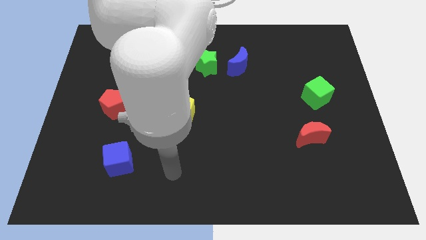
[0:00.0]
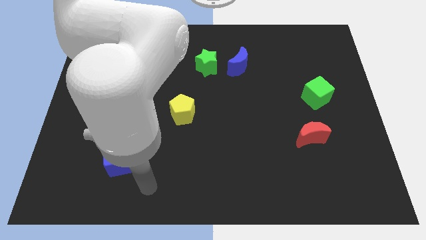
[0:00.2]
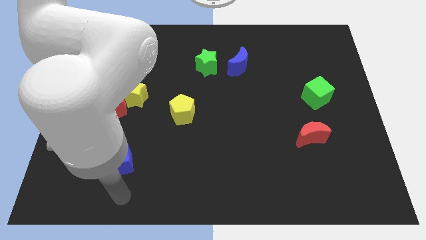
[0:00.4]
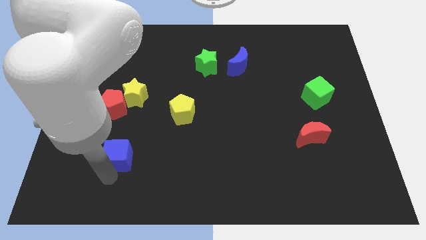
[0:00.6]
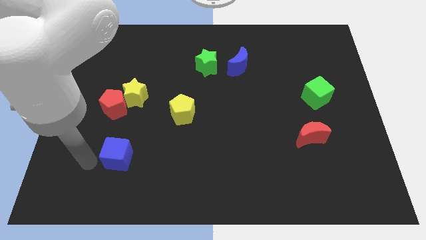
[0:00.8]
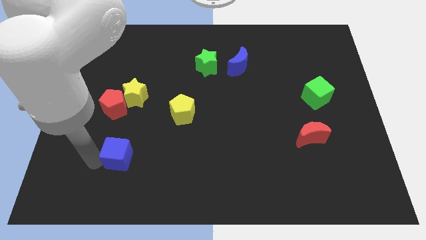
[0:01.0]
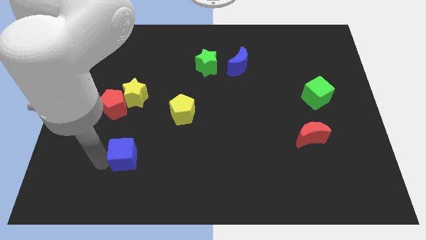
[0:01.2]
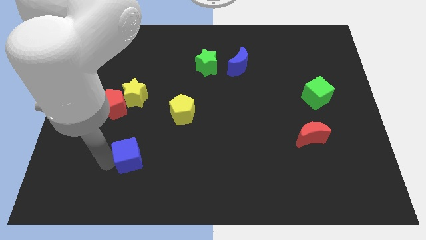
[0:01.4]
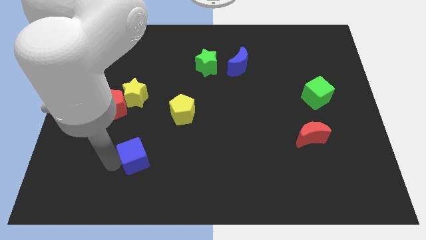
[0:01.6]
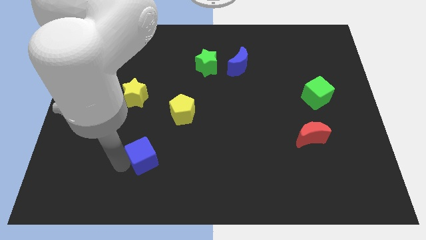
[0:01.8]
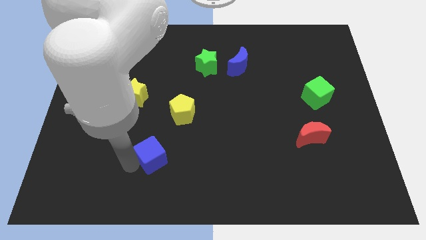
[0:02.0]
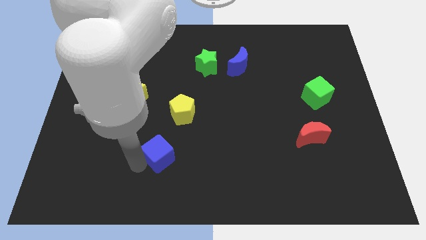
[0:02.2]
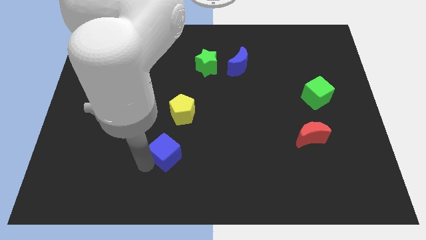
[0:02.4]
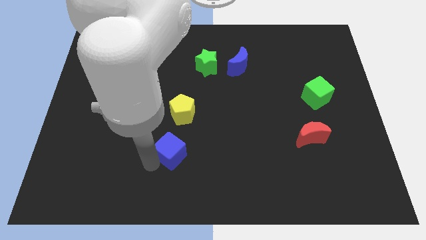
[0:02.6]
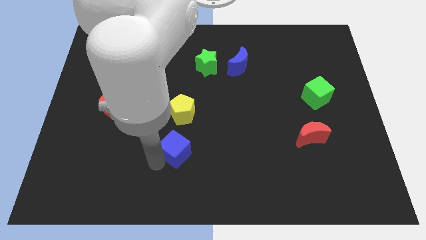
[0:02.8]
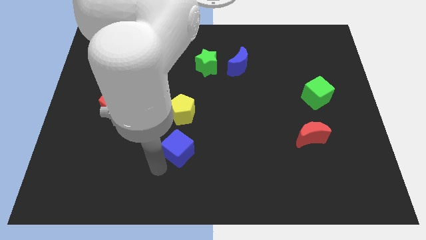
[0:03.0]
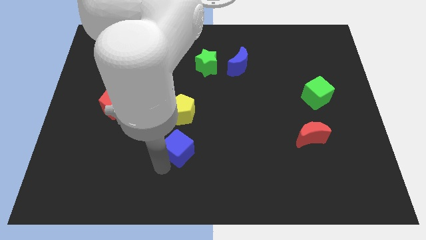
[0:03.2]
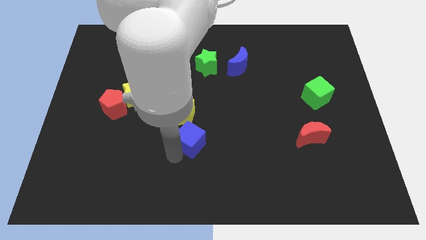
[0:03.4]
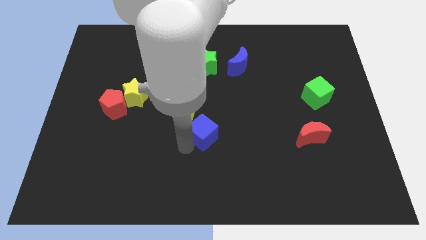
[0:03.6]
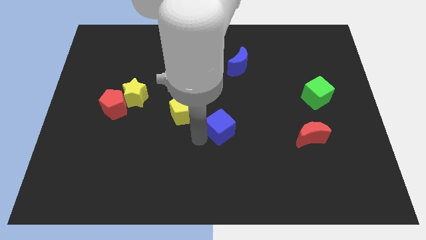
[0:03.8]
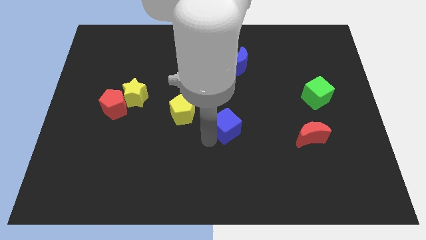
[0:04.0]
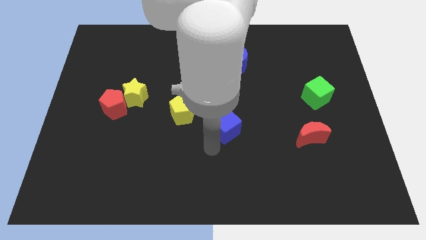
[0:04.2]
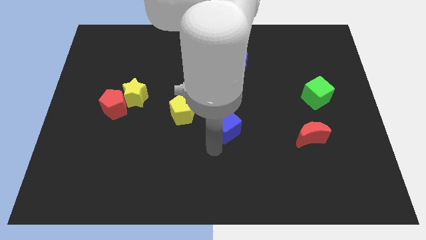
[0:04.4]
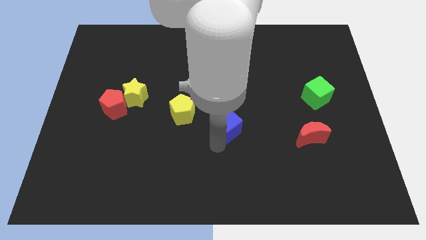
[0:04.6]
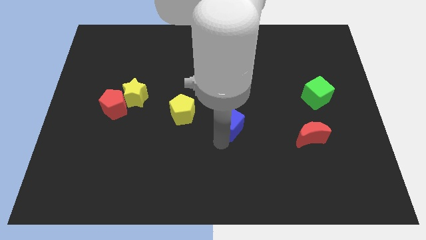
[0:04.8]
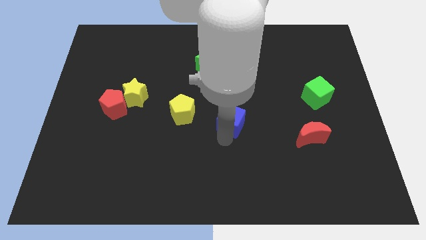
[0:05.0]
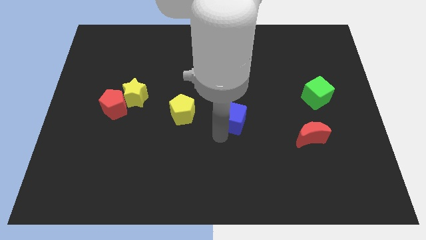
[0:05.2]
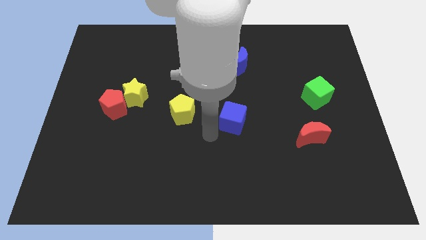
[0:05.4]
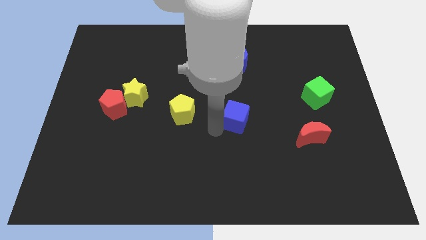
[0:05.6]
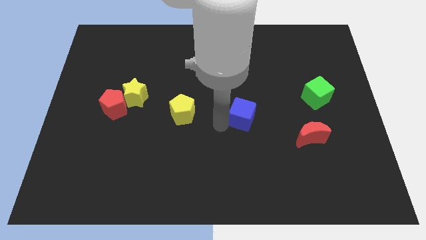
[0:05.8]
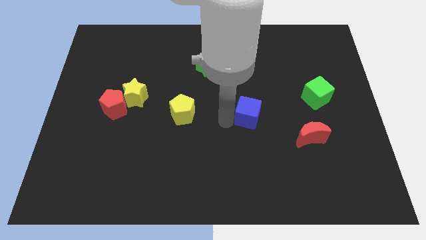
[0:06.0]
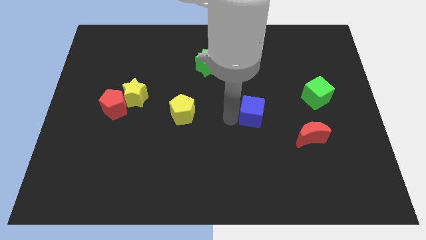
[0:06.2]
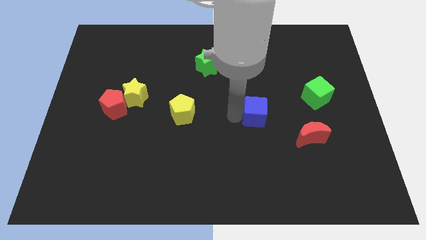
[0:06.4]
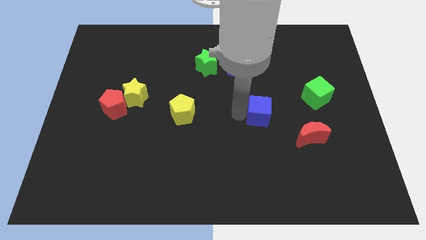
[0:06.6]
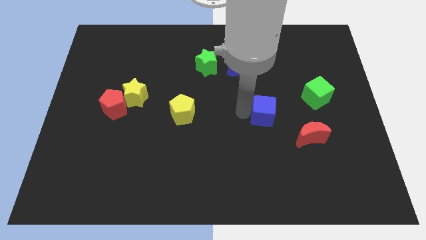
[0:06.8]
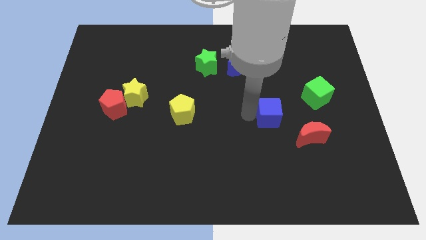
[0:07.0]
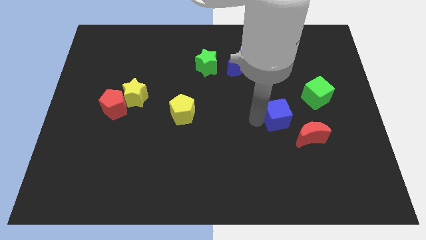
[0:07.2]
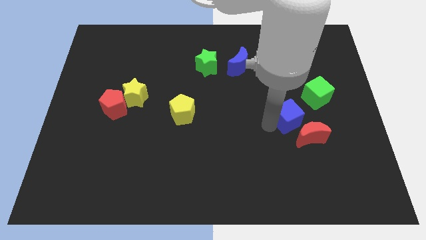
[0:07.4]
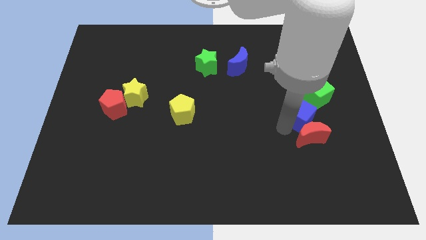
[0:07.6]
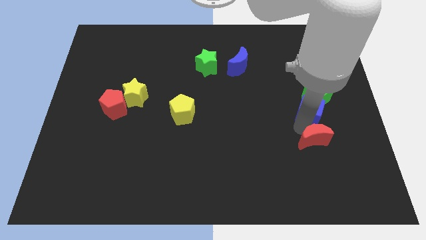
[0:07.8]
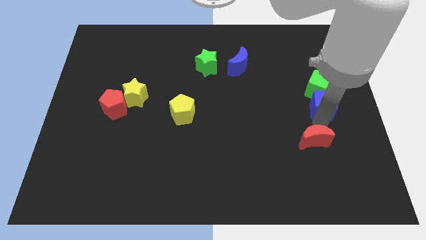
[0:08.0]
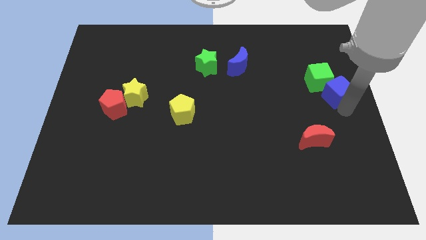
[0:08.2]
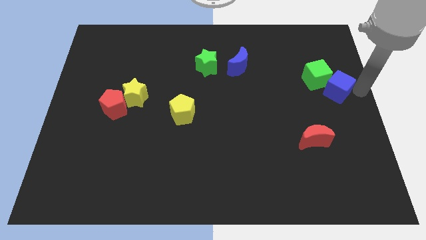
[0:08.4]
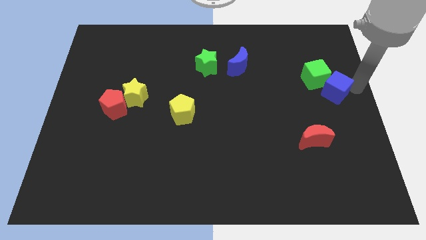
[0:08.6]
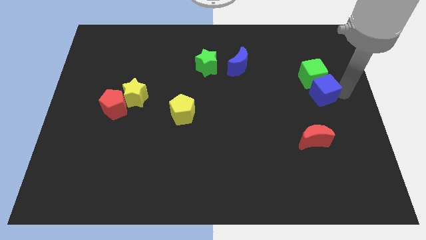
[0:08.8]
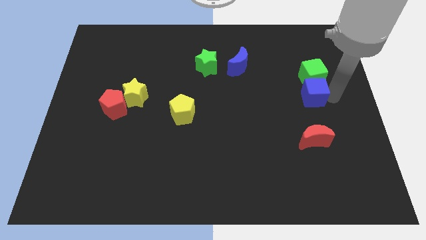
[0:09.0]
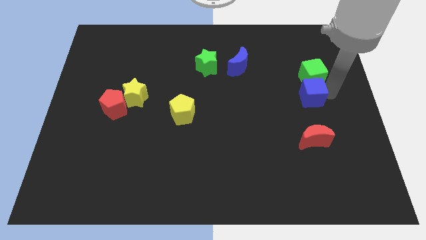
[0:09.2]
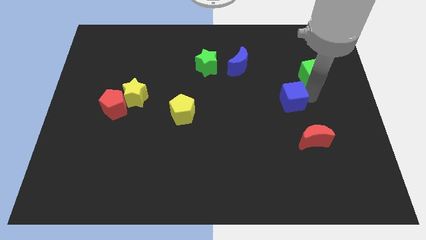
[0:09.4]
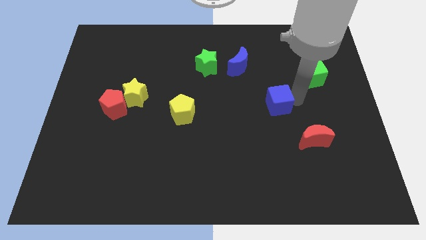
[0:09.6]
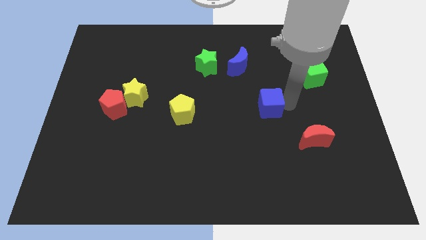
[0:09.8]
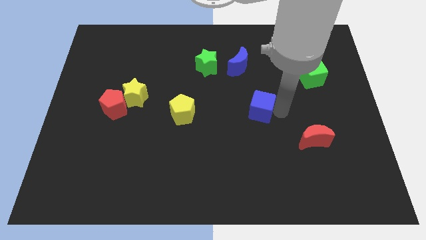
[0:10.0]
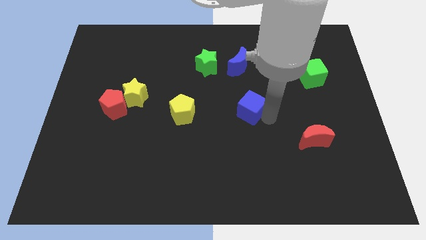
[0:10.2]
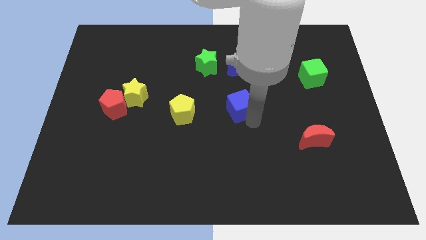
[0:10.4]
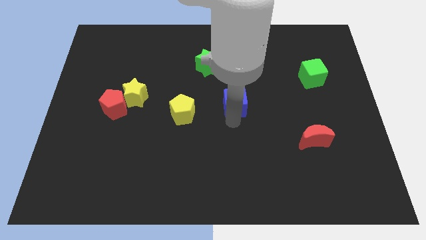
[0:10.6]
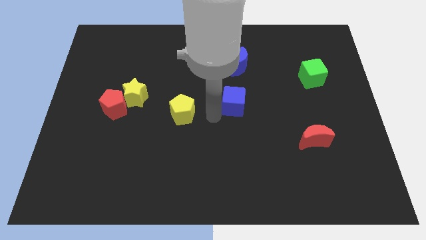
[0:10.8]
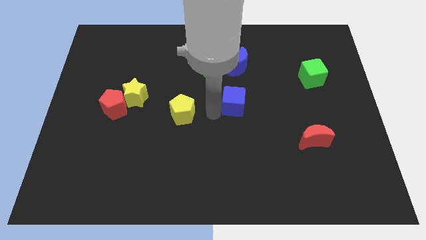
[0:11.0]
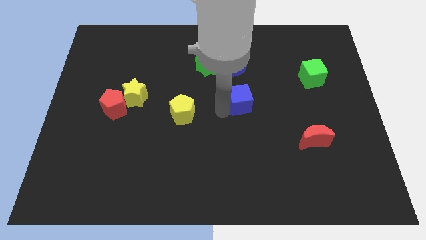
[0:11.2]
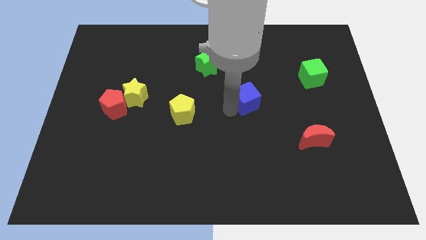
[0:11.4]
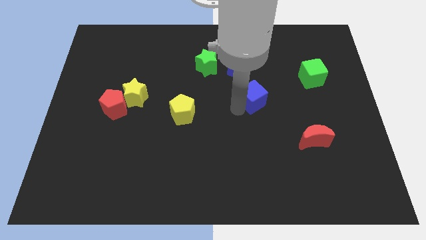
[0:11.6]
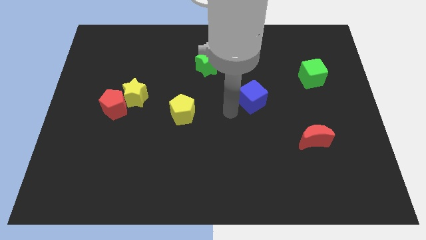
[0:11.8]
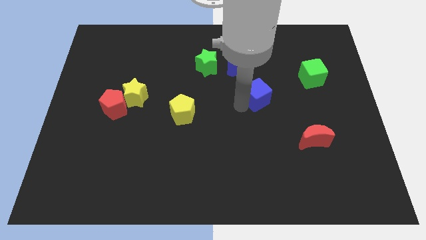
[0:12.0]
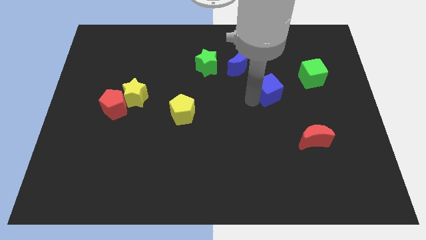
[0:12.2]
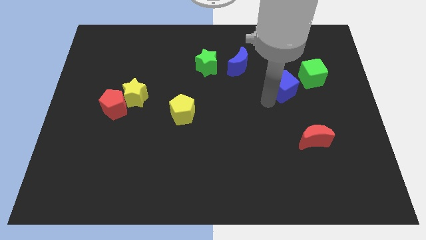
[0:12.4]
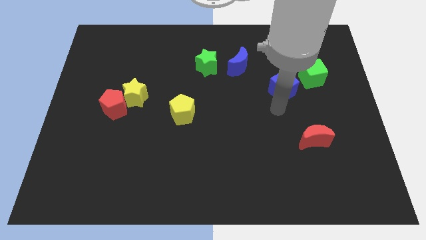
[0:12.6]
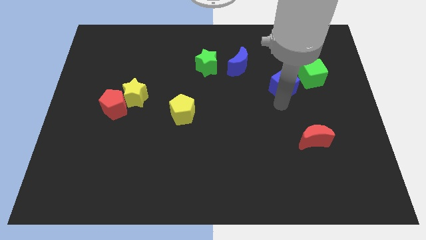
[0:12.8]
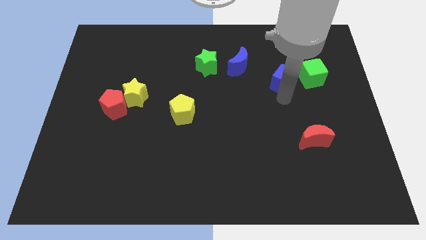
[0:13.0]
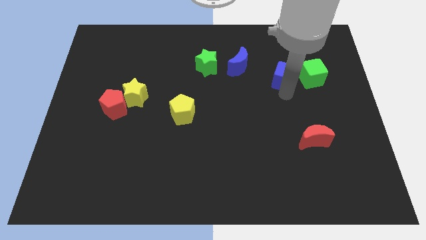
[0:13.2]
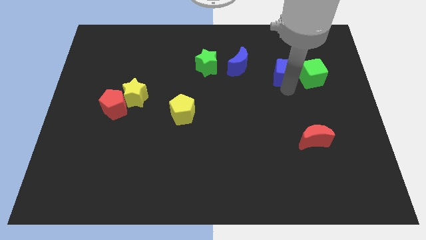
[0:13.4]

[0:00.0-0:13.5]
slide the blue cube to the top left of the green cube

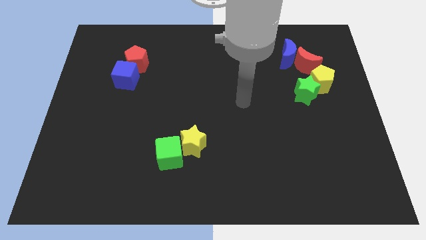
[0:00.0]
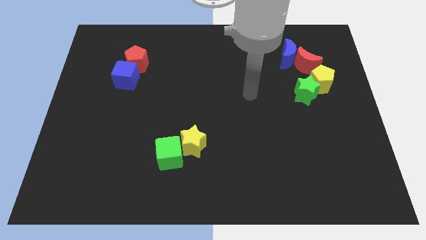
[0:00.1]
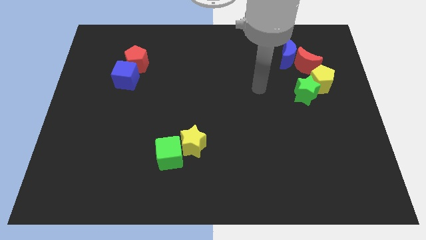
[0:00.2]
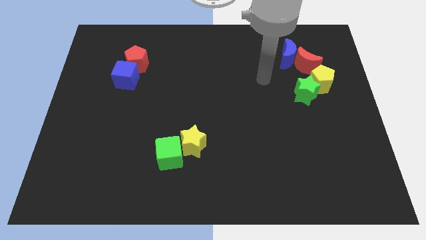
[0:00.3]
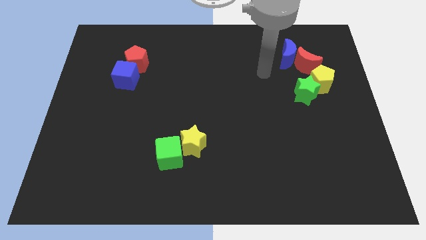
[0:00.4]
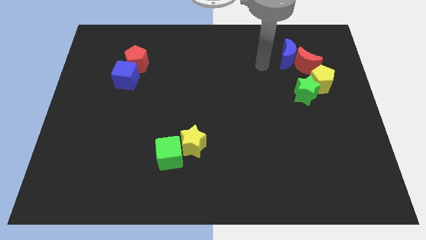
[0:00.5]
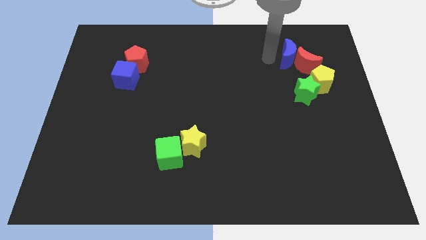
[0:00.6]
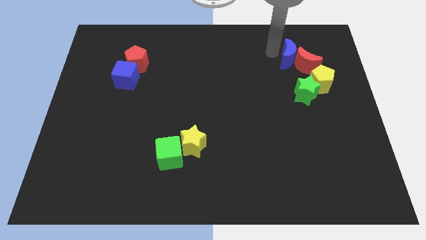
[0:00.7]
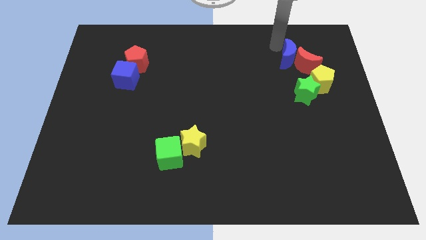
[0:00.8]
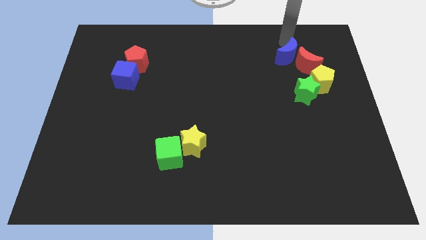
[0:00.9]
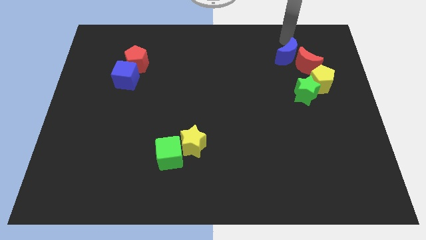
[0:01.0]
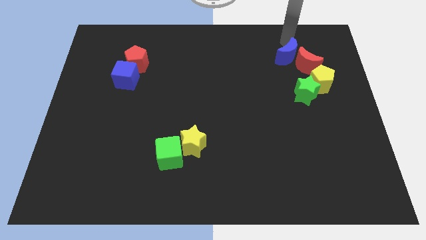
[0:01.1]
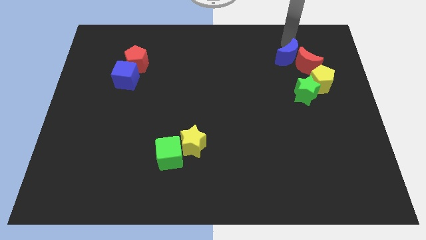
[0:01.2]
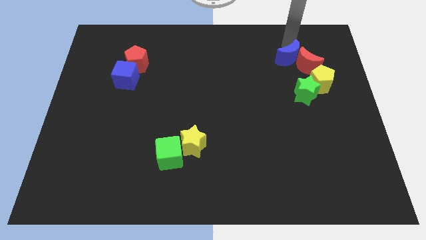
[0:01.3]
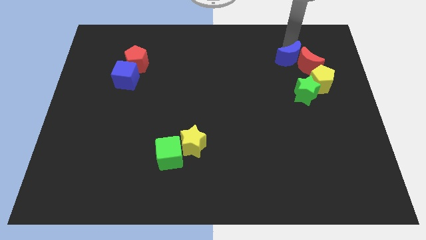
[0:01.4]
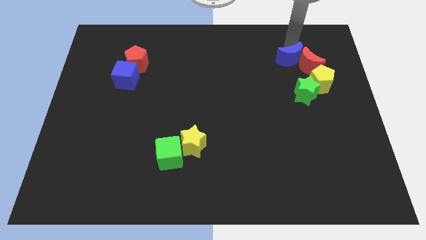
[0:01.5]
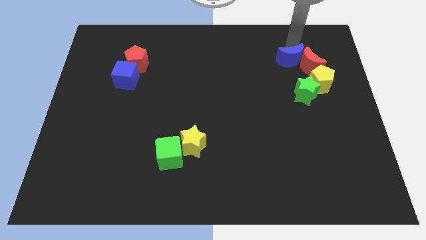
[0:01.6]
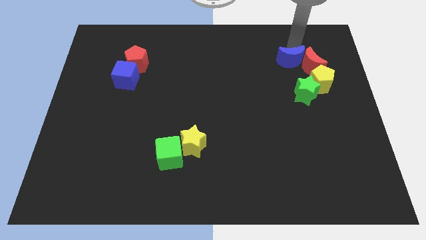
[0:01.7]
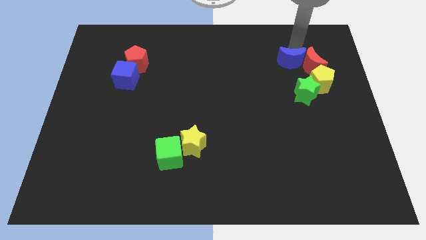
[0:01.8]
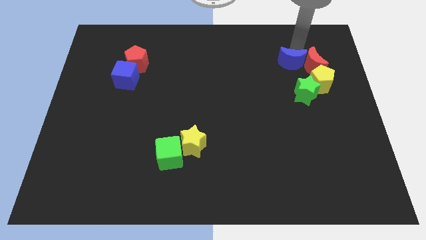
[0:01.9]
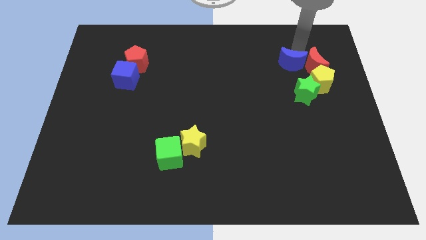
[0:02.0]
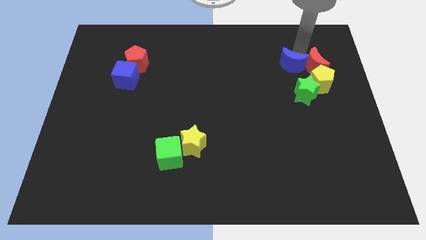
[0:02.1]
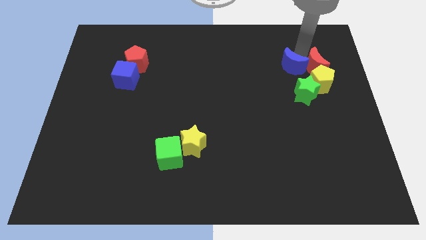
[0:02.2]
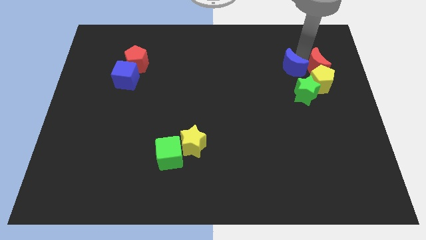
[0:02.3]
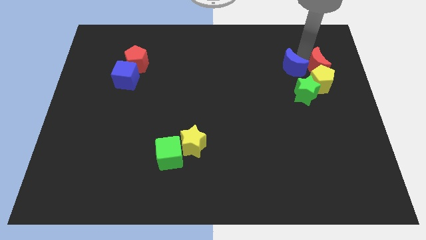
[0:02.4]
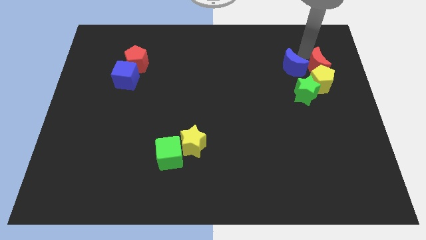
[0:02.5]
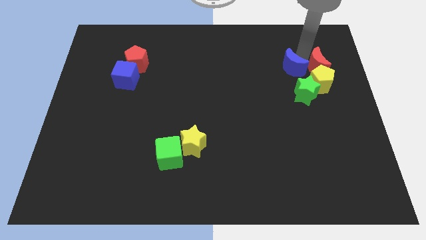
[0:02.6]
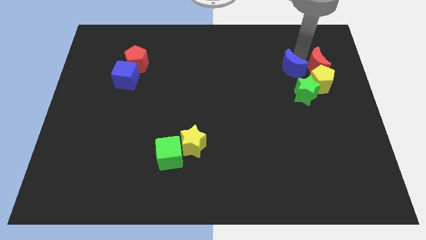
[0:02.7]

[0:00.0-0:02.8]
put the blue moon just left of the yellow pentagon
